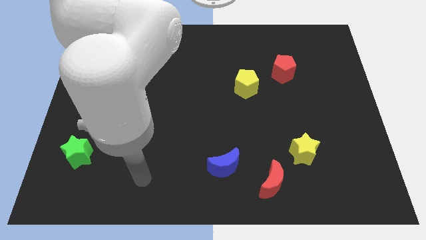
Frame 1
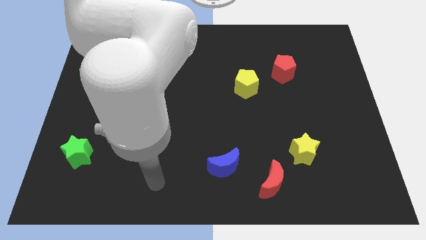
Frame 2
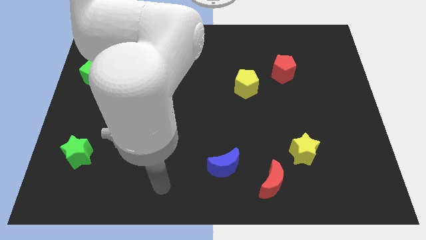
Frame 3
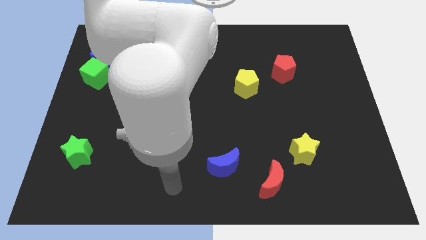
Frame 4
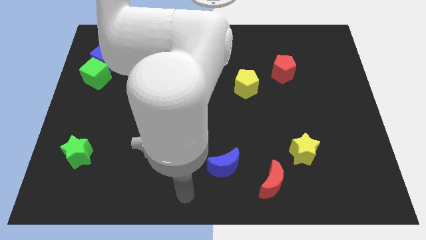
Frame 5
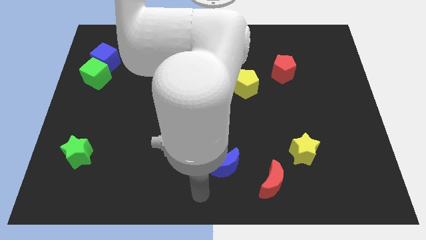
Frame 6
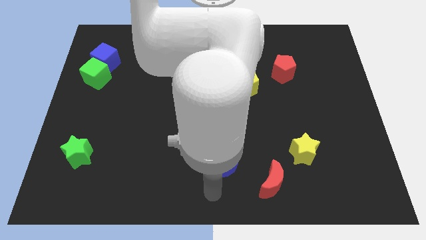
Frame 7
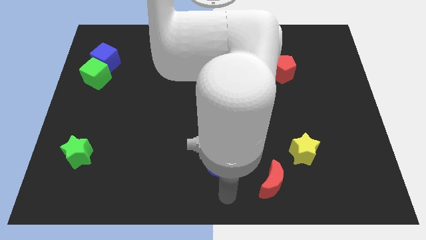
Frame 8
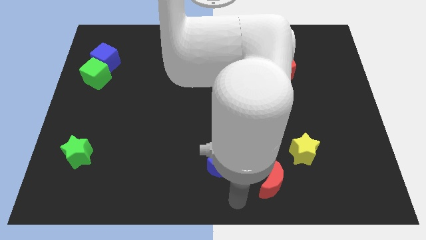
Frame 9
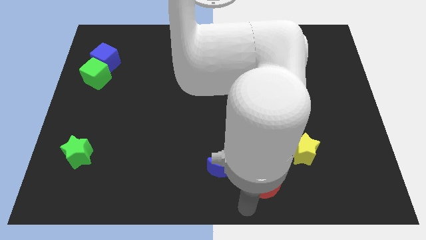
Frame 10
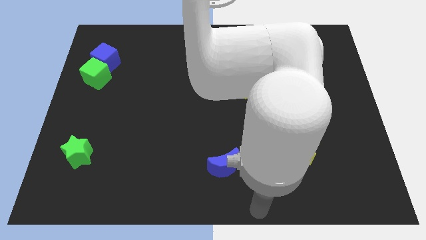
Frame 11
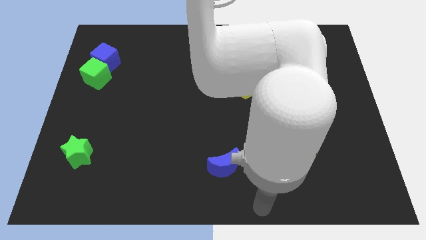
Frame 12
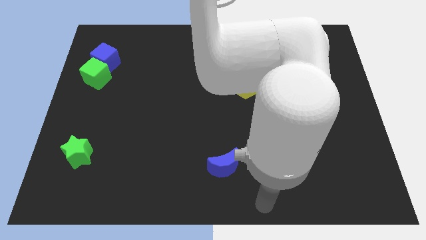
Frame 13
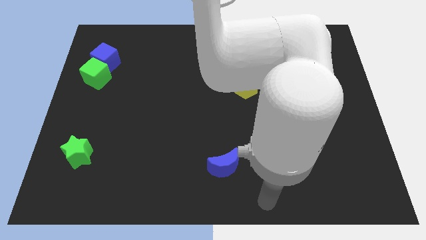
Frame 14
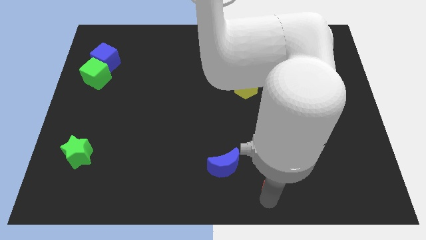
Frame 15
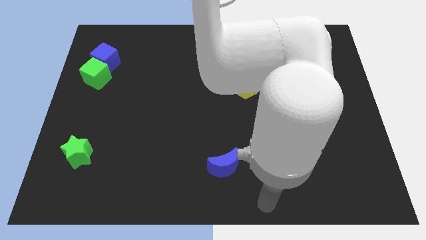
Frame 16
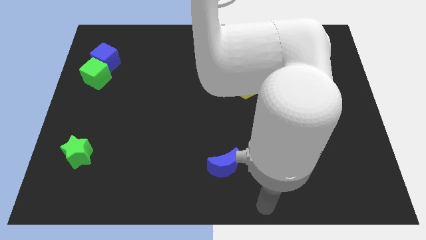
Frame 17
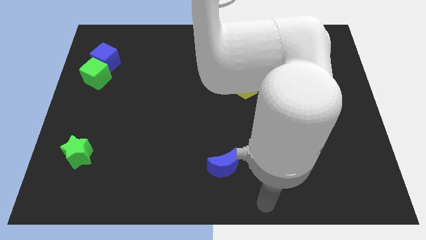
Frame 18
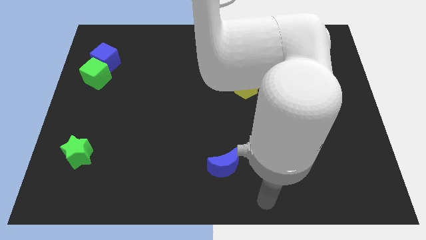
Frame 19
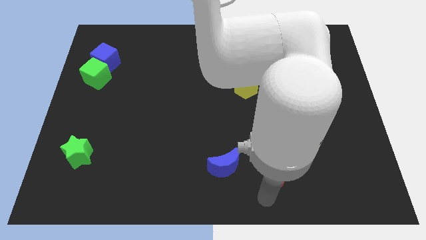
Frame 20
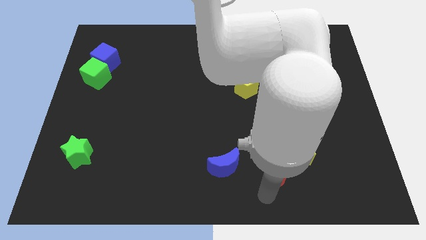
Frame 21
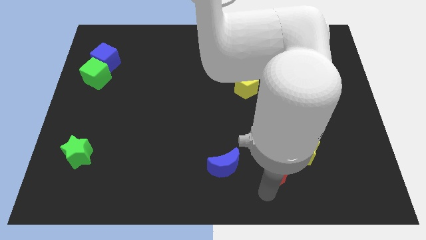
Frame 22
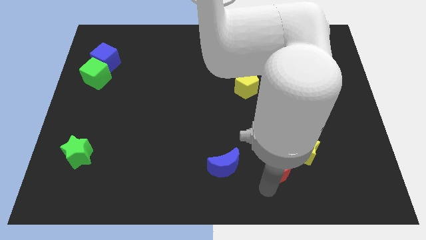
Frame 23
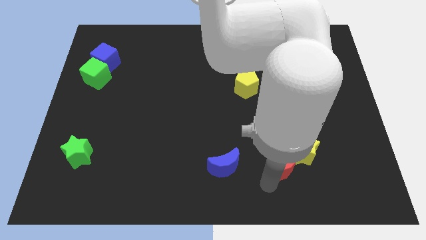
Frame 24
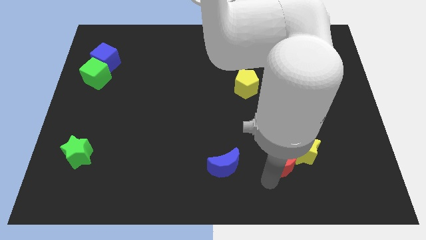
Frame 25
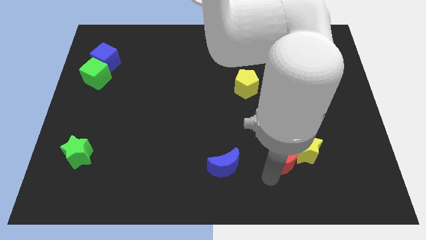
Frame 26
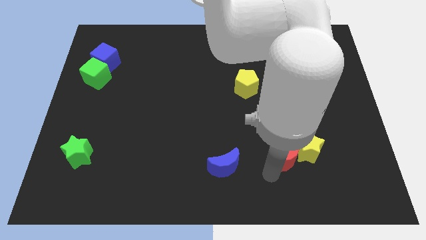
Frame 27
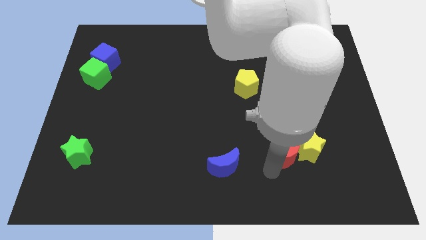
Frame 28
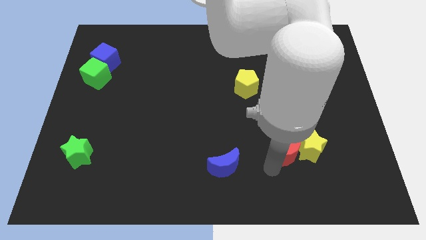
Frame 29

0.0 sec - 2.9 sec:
move the red moon a bit up and to the right diagonally

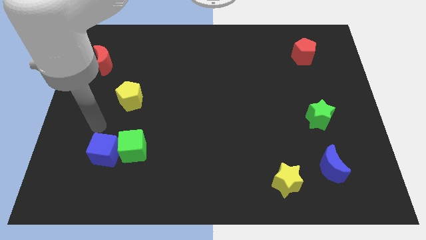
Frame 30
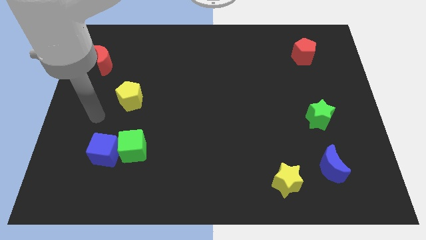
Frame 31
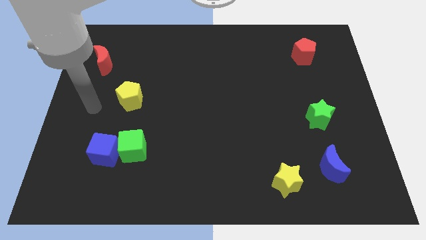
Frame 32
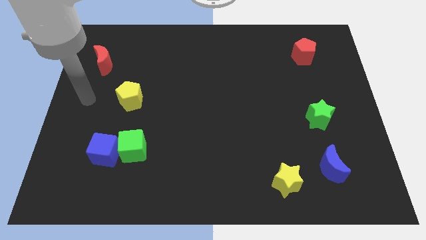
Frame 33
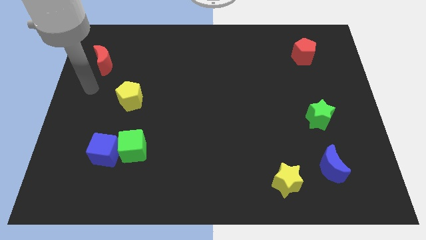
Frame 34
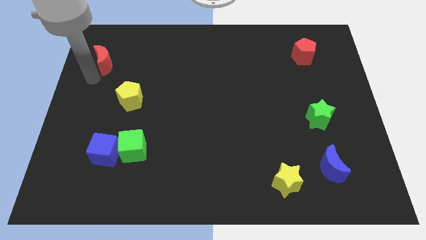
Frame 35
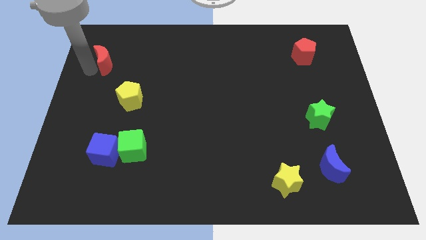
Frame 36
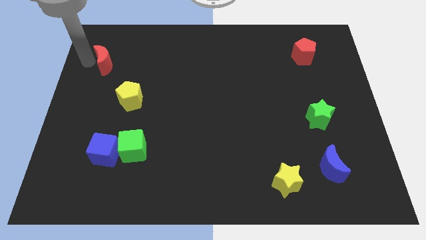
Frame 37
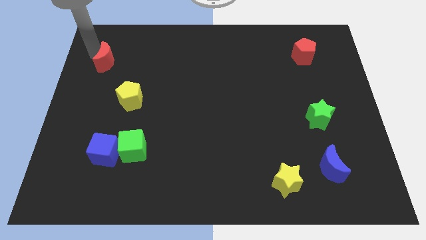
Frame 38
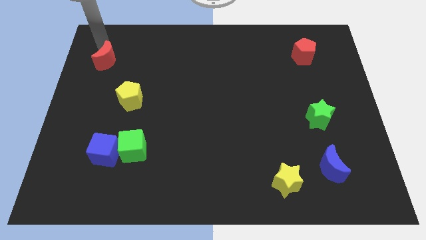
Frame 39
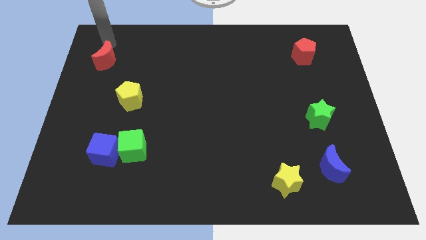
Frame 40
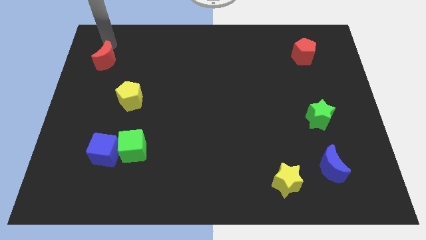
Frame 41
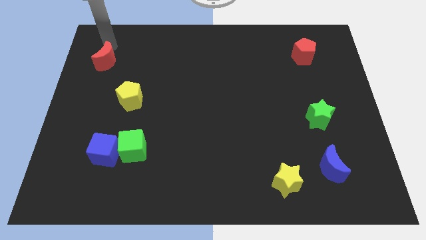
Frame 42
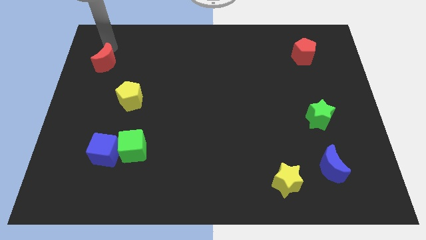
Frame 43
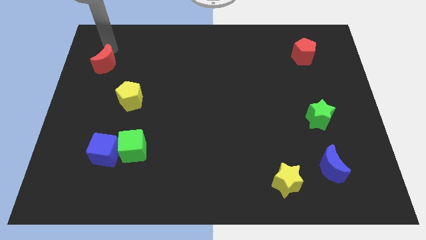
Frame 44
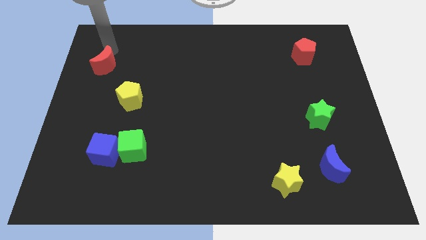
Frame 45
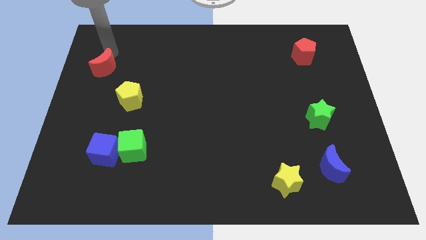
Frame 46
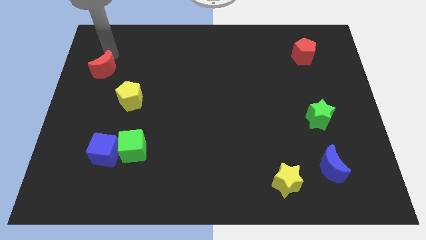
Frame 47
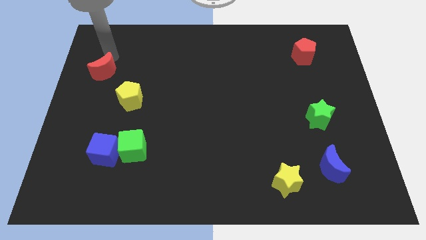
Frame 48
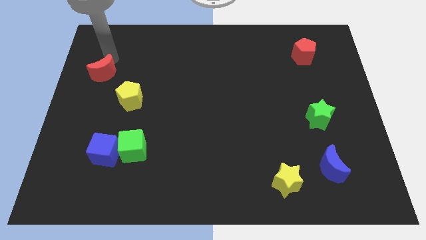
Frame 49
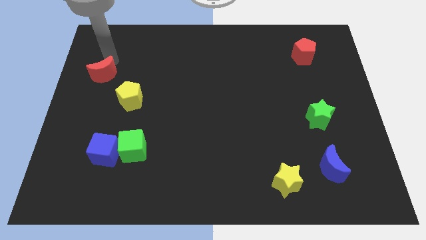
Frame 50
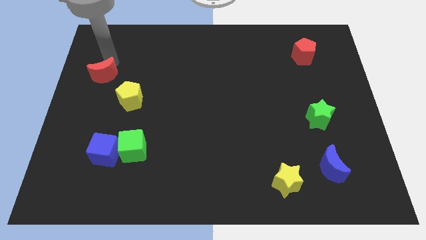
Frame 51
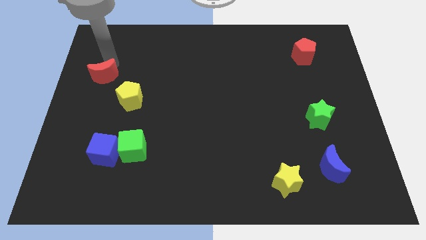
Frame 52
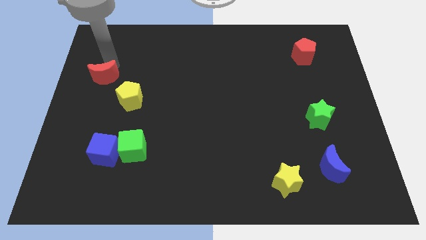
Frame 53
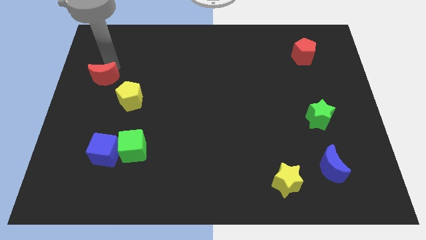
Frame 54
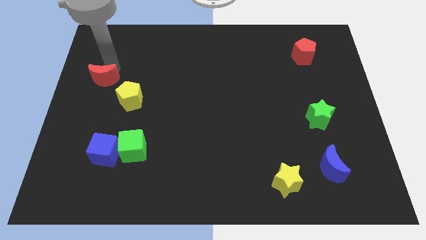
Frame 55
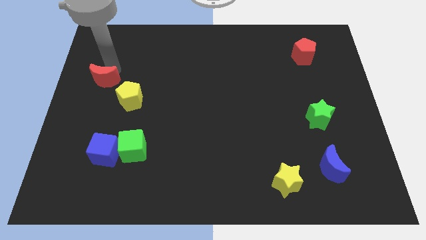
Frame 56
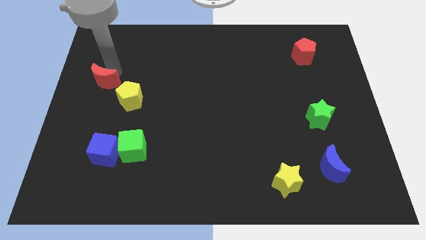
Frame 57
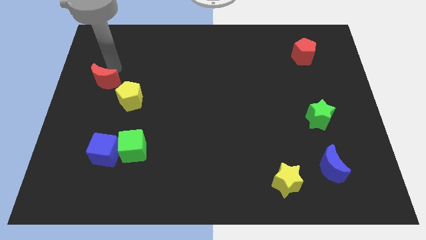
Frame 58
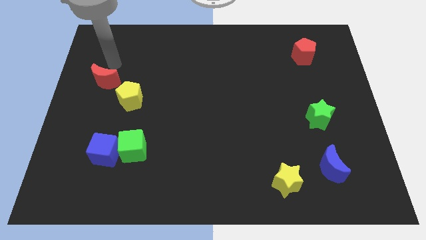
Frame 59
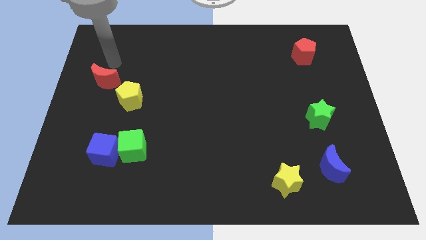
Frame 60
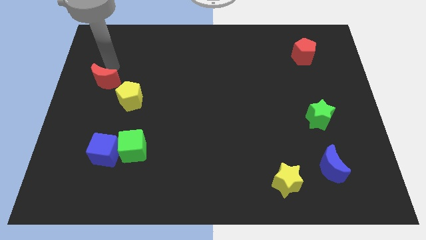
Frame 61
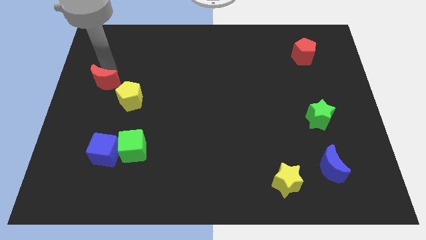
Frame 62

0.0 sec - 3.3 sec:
slide the red moon down somewhat

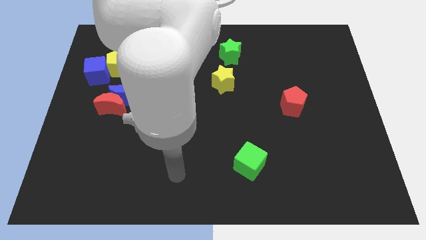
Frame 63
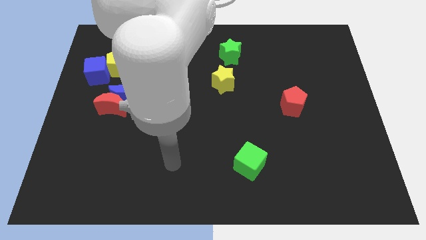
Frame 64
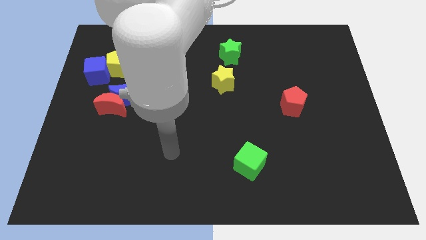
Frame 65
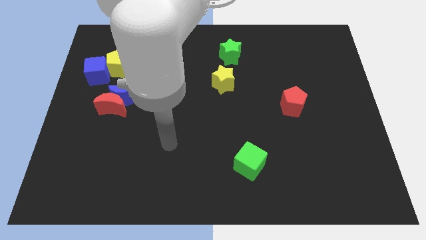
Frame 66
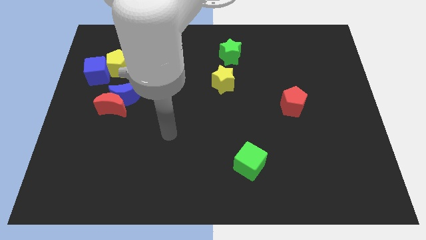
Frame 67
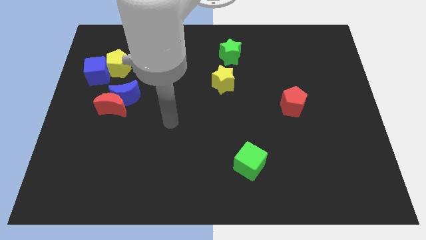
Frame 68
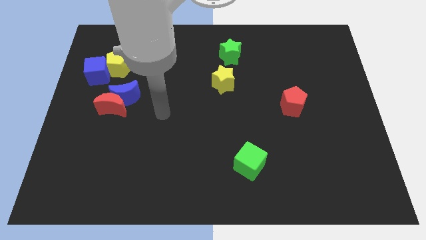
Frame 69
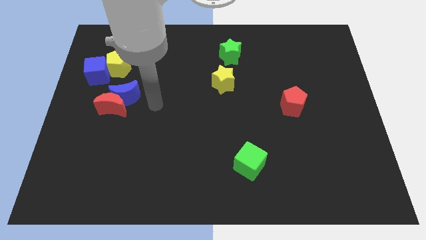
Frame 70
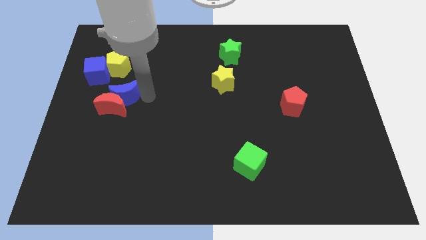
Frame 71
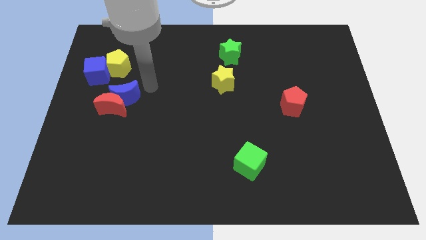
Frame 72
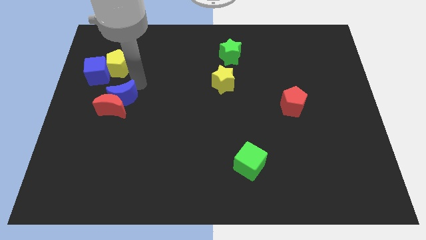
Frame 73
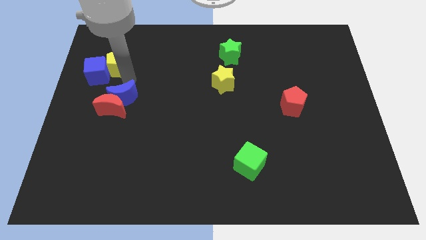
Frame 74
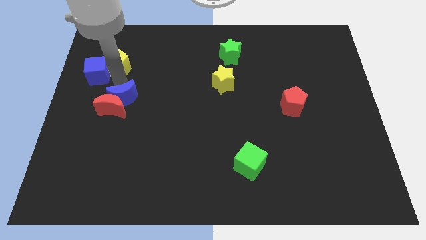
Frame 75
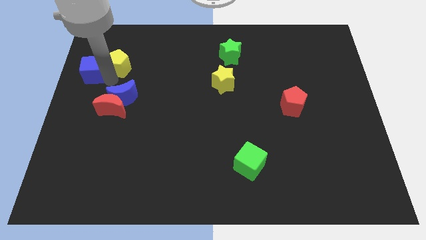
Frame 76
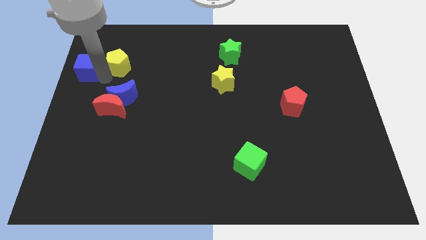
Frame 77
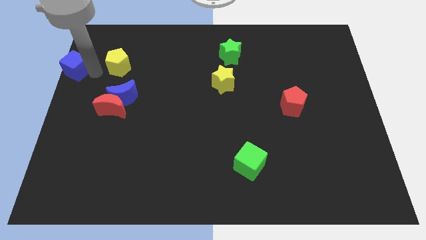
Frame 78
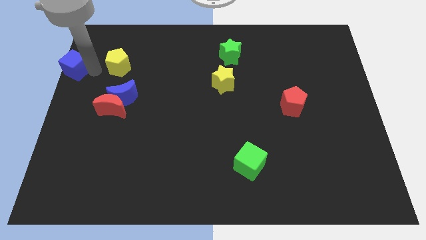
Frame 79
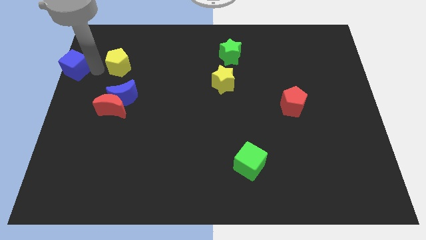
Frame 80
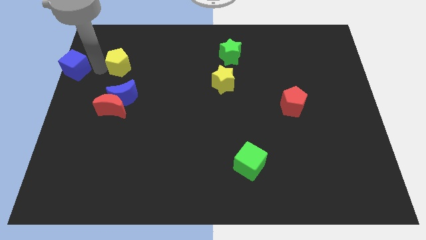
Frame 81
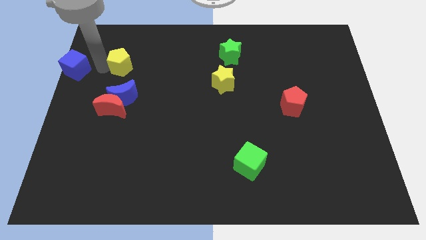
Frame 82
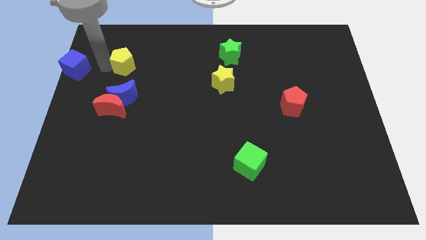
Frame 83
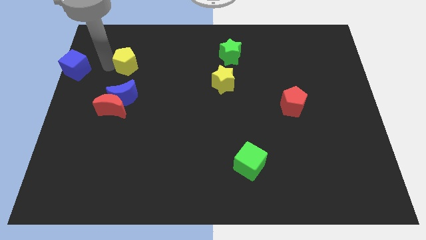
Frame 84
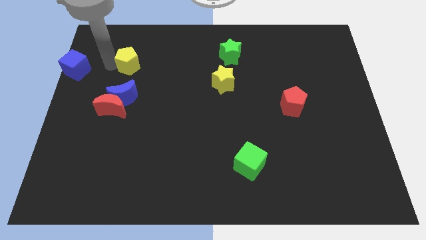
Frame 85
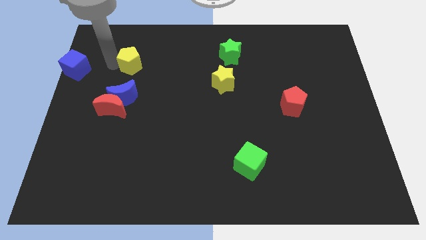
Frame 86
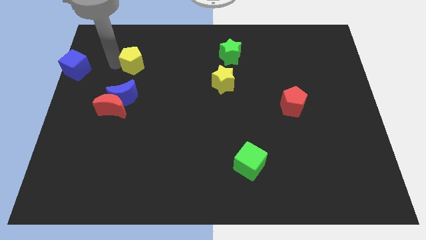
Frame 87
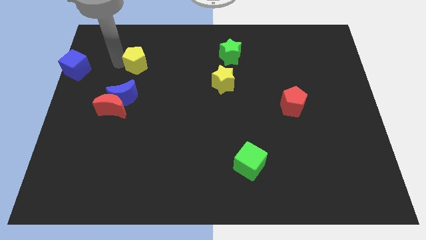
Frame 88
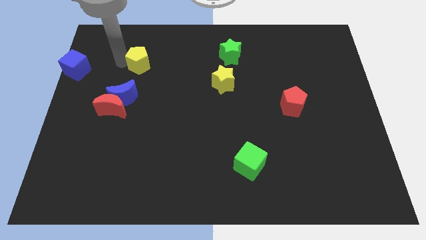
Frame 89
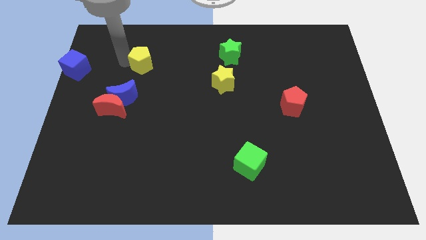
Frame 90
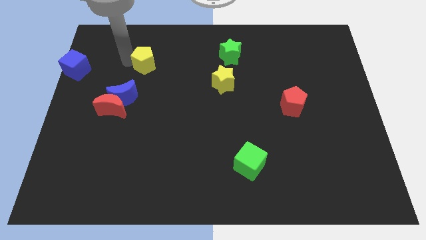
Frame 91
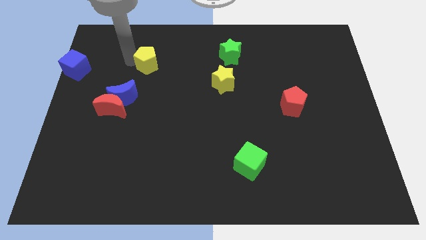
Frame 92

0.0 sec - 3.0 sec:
slide the yellow pentagon right a little
